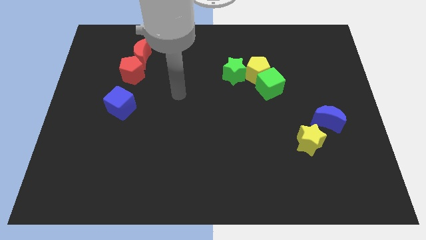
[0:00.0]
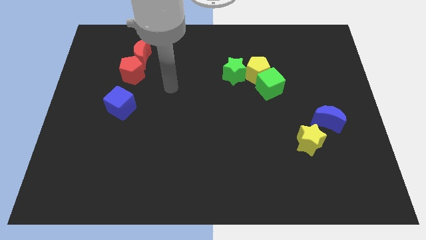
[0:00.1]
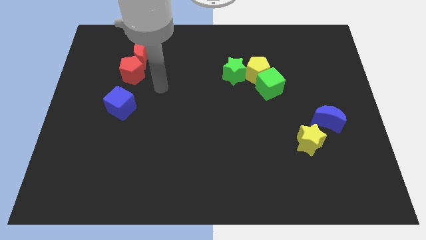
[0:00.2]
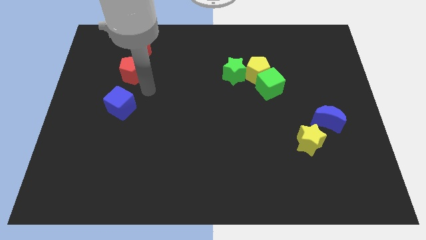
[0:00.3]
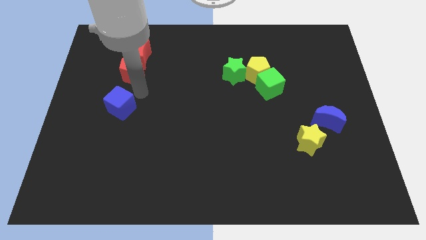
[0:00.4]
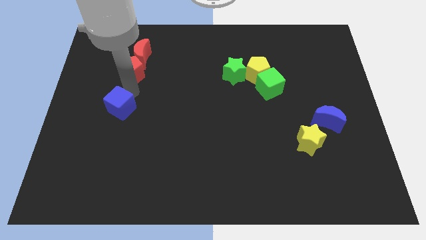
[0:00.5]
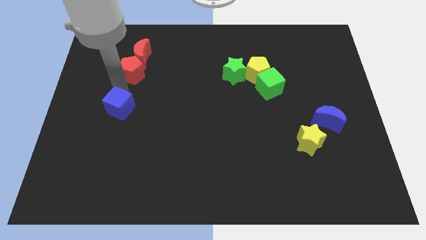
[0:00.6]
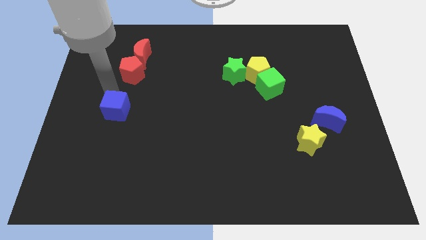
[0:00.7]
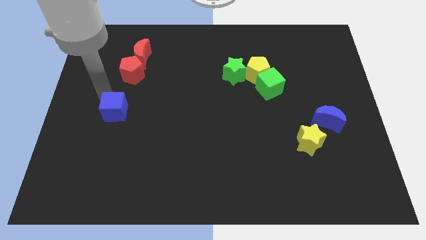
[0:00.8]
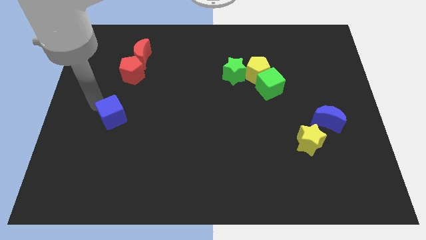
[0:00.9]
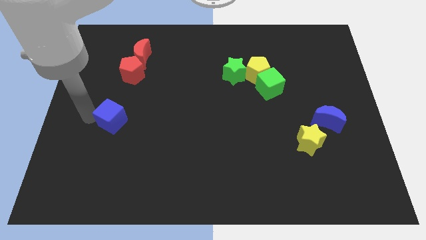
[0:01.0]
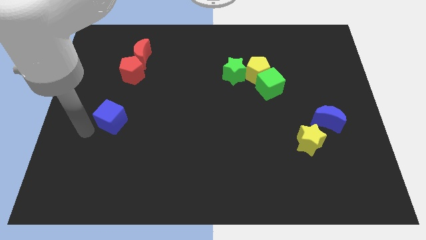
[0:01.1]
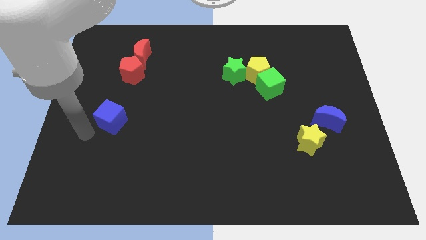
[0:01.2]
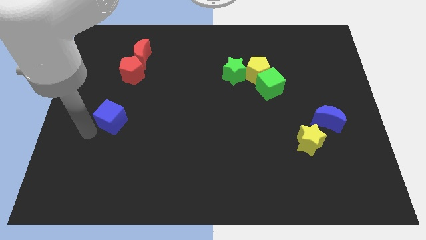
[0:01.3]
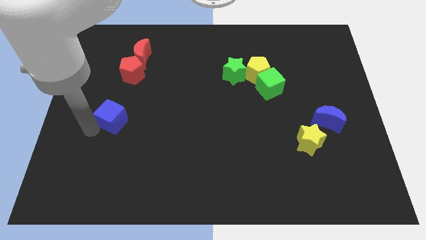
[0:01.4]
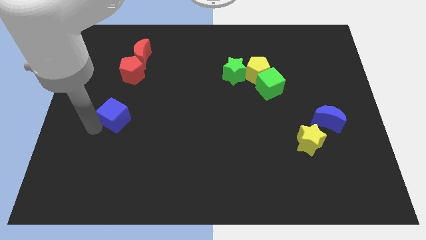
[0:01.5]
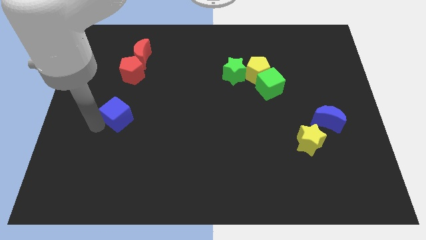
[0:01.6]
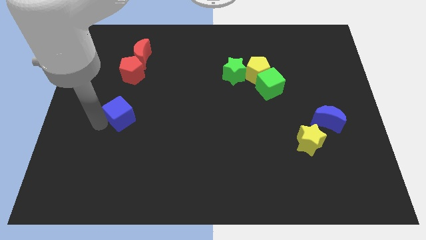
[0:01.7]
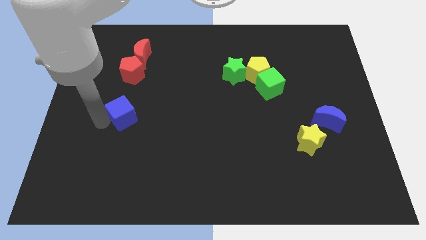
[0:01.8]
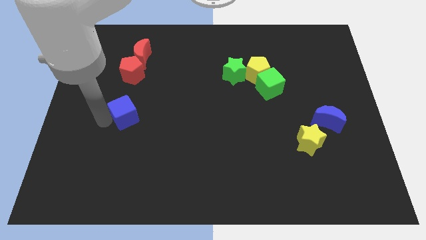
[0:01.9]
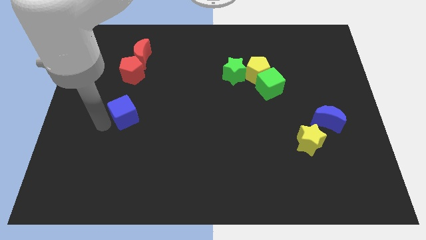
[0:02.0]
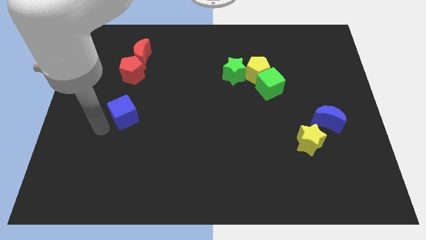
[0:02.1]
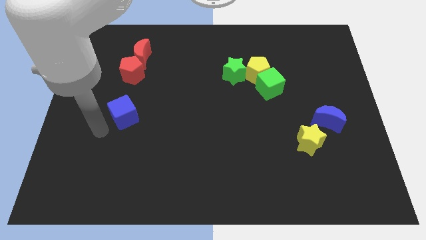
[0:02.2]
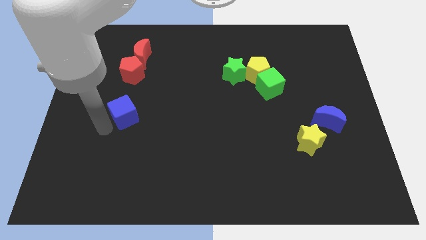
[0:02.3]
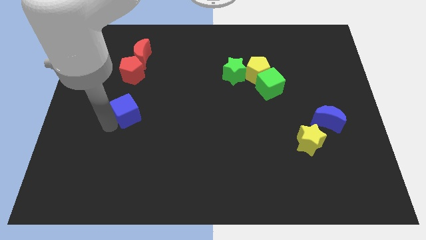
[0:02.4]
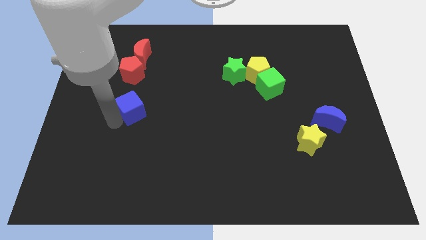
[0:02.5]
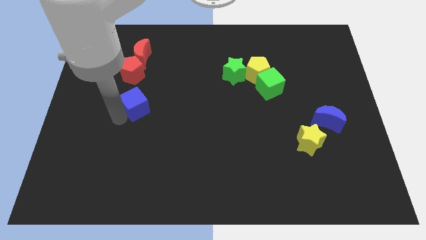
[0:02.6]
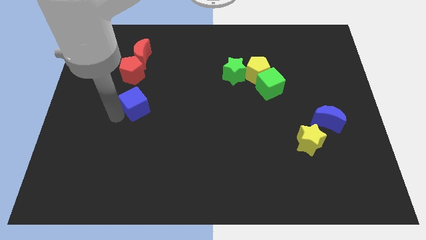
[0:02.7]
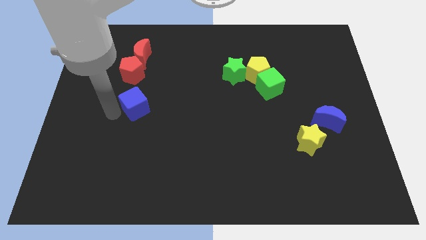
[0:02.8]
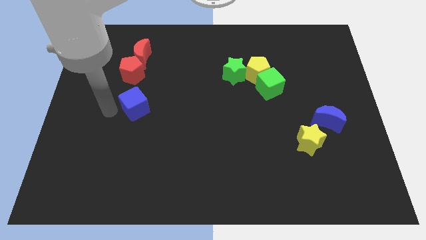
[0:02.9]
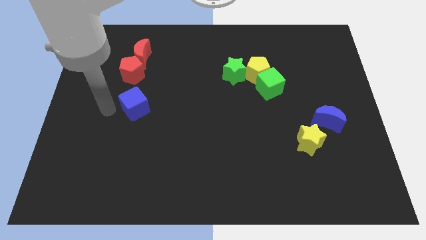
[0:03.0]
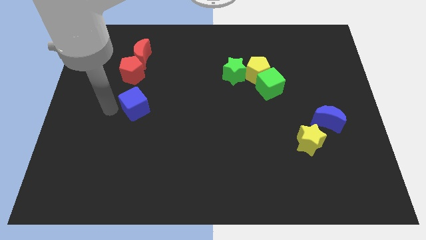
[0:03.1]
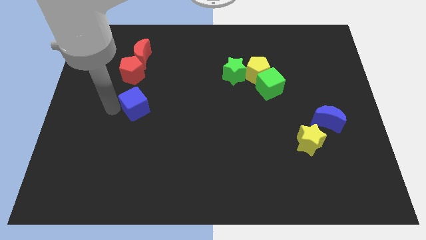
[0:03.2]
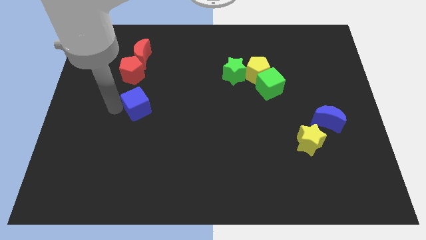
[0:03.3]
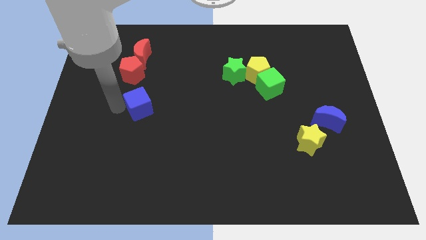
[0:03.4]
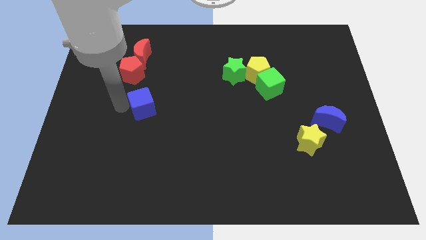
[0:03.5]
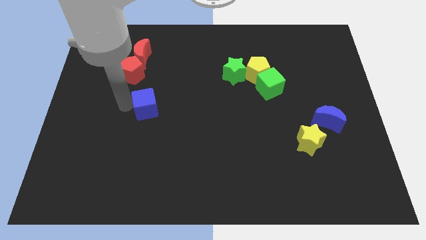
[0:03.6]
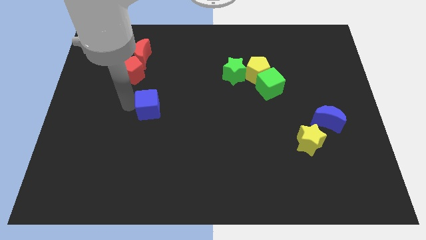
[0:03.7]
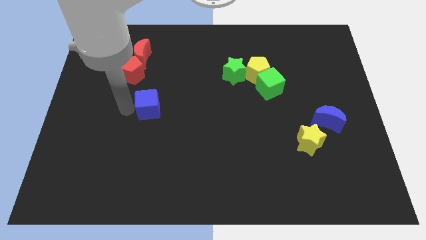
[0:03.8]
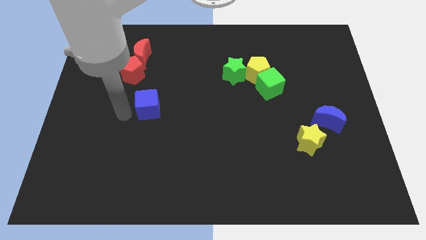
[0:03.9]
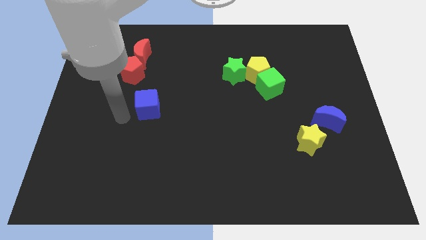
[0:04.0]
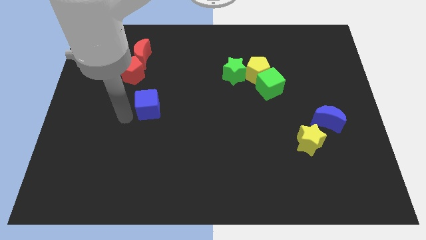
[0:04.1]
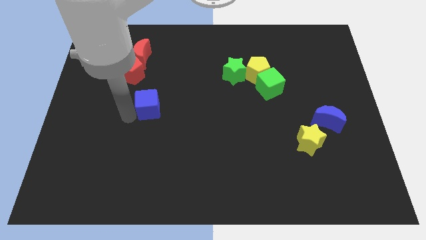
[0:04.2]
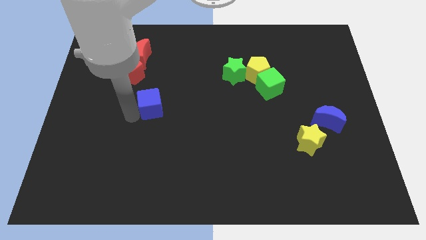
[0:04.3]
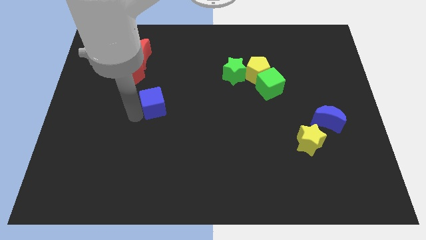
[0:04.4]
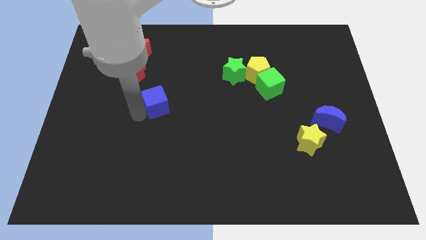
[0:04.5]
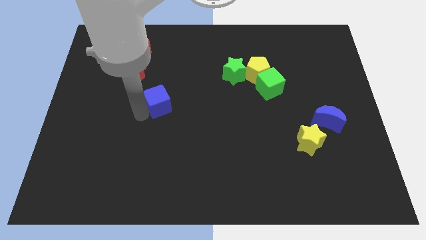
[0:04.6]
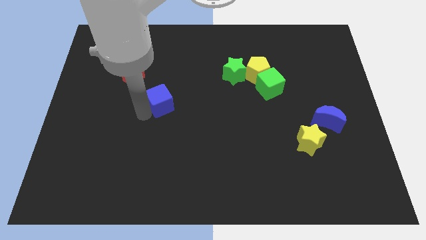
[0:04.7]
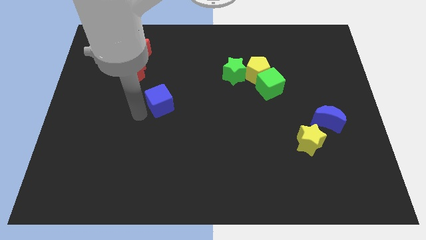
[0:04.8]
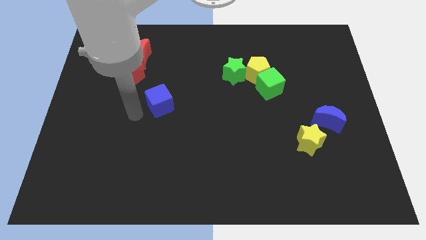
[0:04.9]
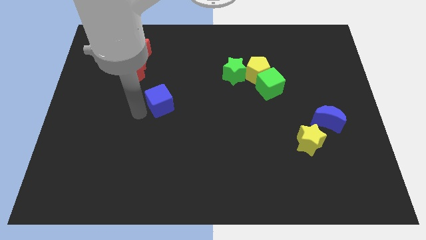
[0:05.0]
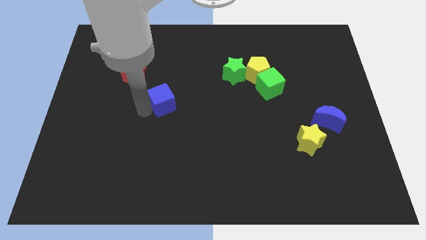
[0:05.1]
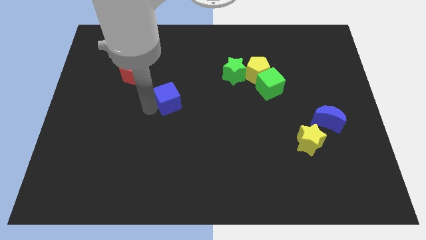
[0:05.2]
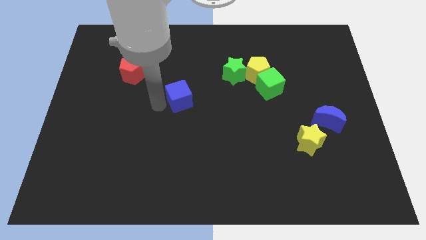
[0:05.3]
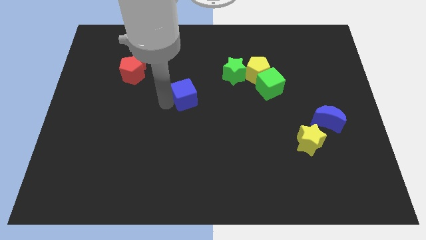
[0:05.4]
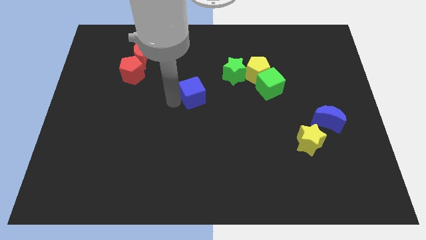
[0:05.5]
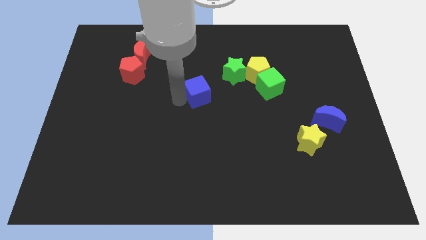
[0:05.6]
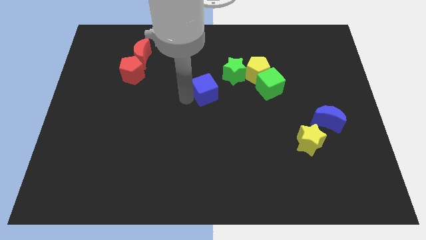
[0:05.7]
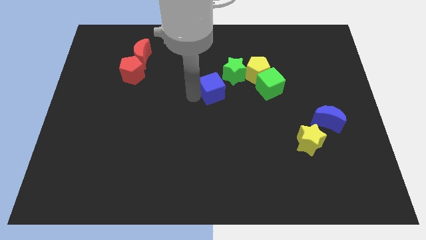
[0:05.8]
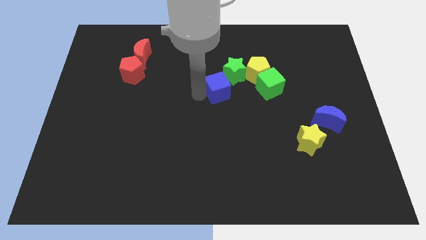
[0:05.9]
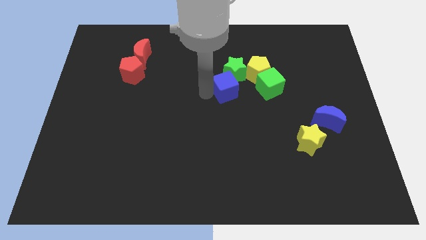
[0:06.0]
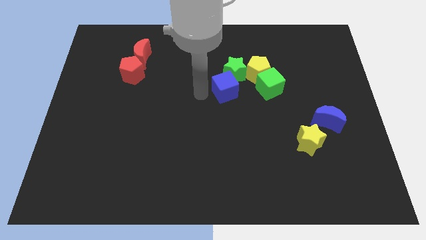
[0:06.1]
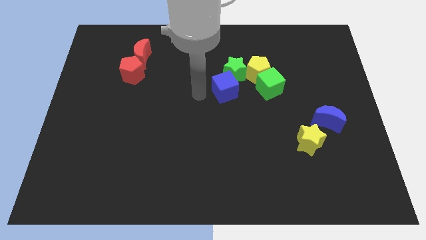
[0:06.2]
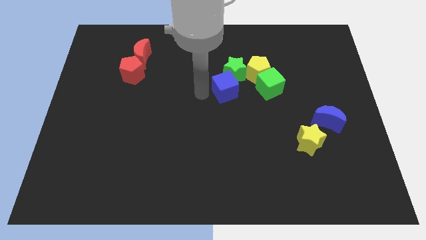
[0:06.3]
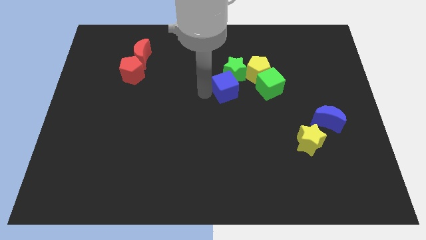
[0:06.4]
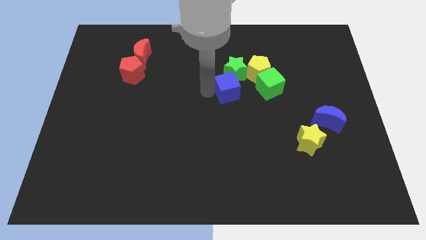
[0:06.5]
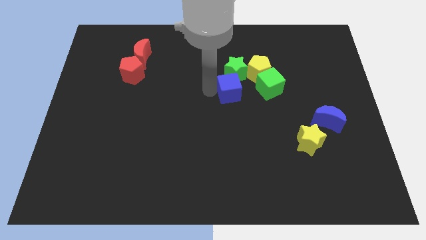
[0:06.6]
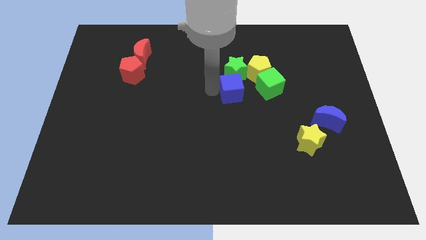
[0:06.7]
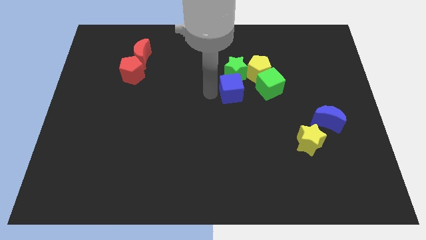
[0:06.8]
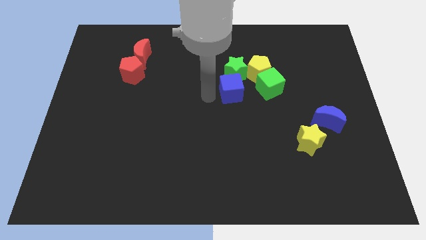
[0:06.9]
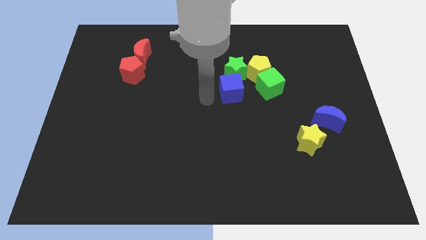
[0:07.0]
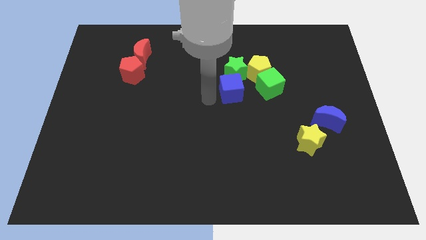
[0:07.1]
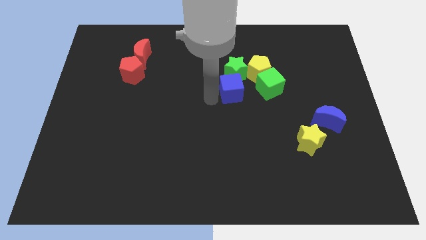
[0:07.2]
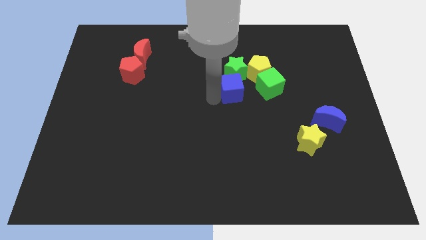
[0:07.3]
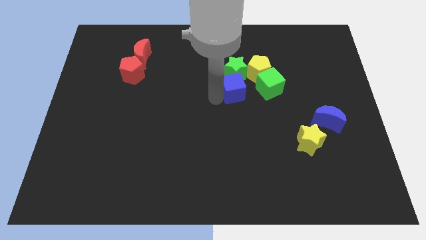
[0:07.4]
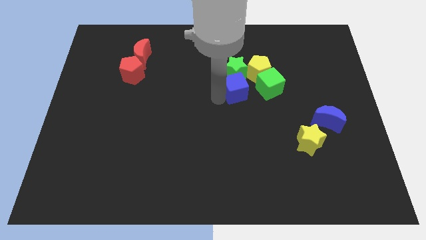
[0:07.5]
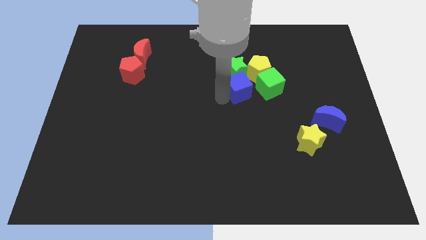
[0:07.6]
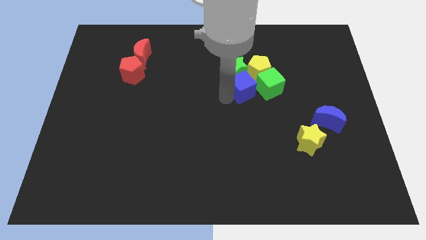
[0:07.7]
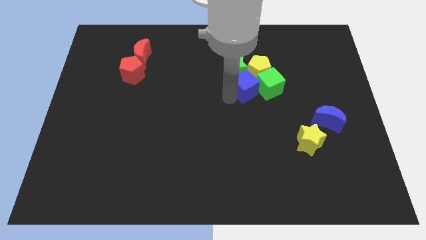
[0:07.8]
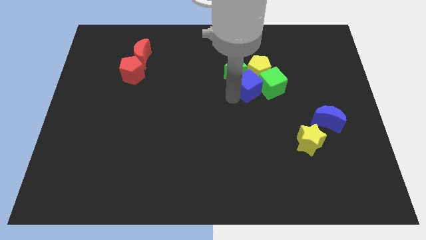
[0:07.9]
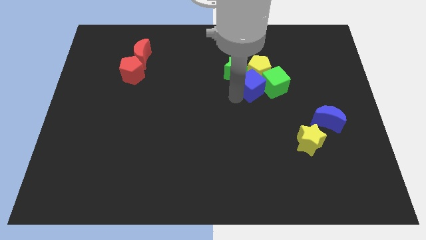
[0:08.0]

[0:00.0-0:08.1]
slide the blue cube close to the yellow pentagon
